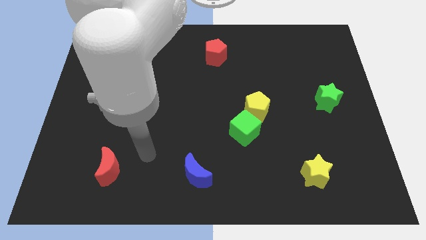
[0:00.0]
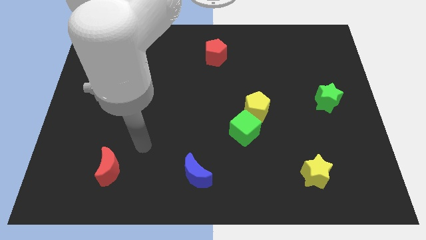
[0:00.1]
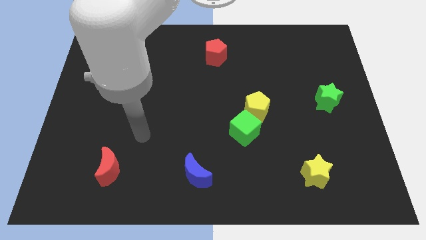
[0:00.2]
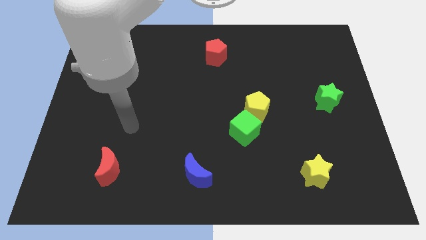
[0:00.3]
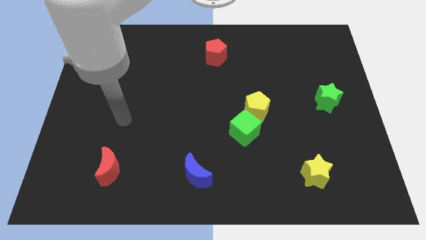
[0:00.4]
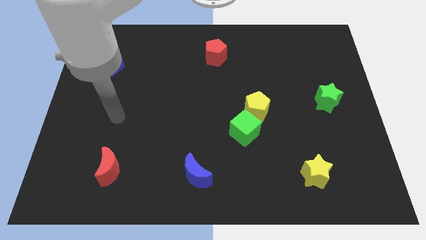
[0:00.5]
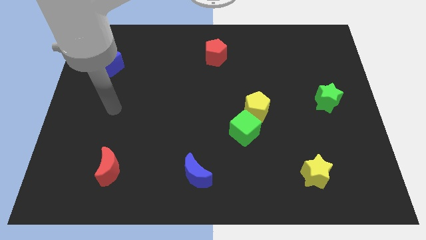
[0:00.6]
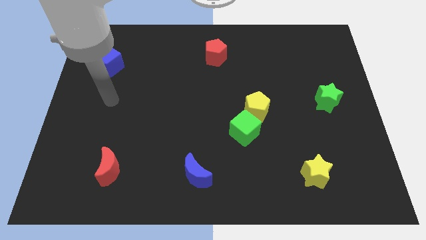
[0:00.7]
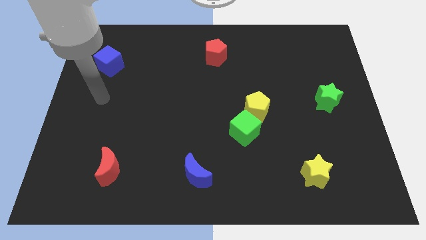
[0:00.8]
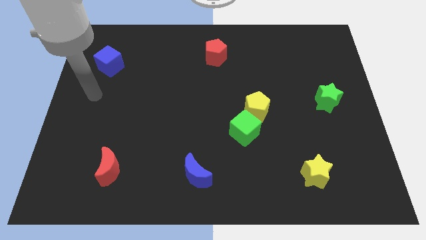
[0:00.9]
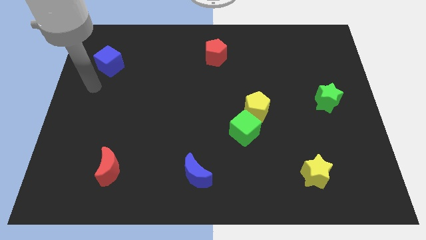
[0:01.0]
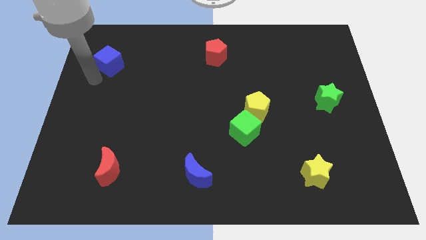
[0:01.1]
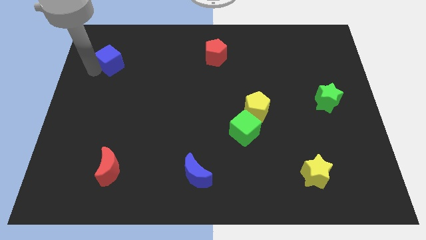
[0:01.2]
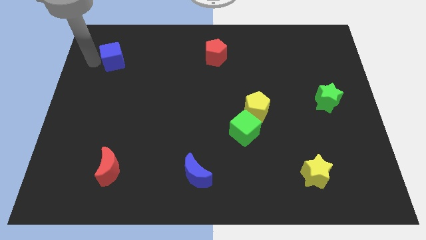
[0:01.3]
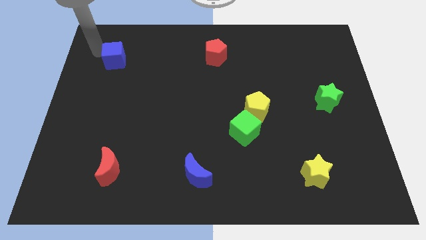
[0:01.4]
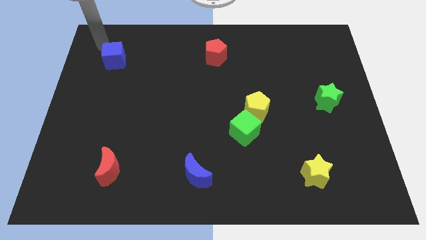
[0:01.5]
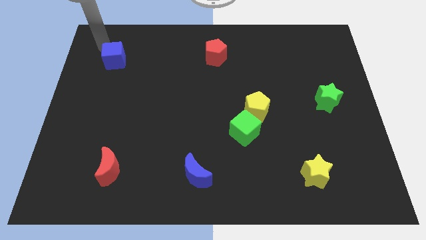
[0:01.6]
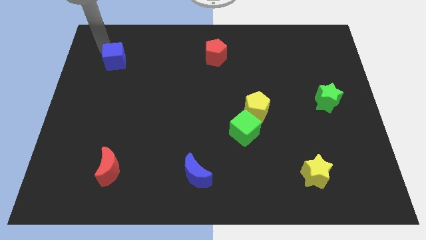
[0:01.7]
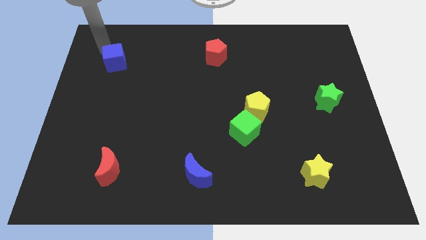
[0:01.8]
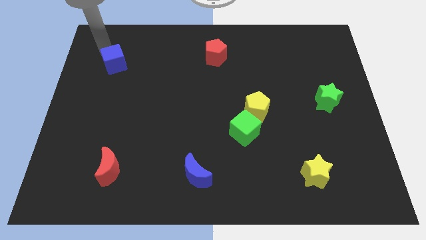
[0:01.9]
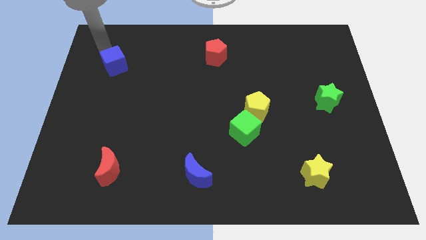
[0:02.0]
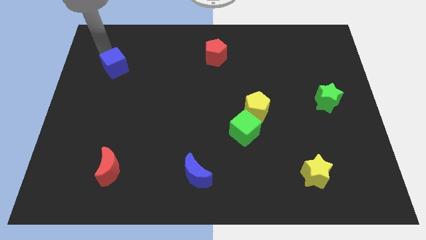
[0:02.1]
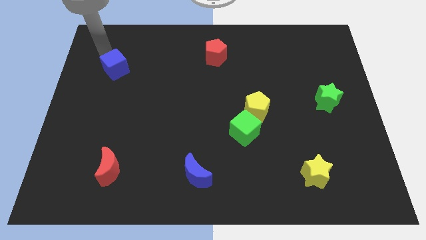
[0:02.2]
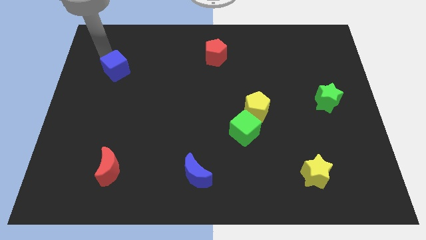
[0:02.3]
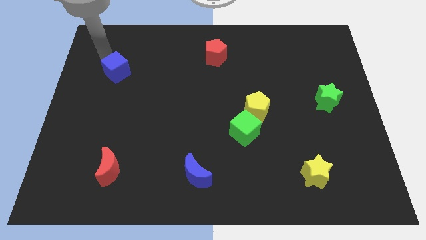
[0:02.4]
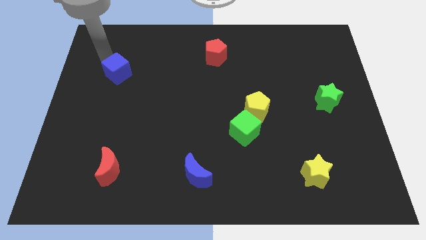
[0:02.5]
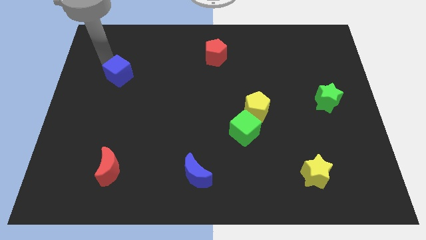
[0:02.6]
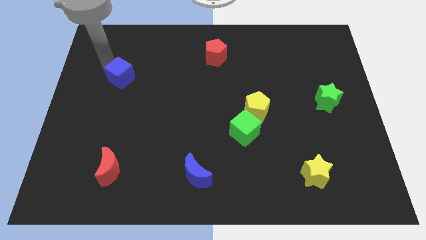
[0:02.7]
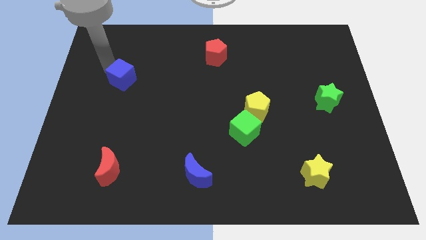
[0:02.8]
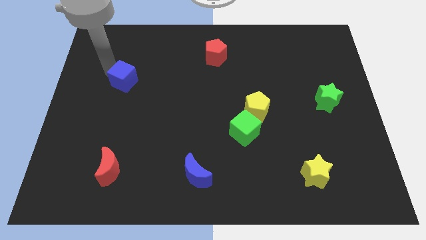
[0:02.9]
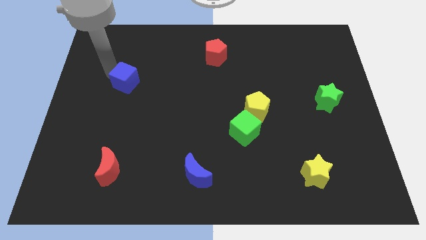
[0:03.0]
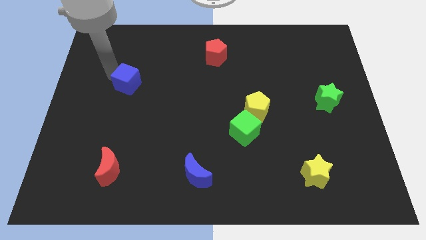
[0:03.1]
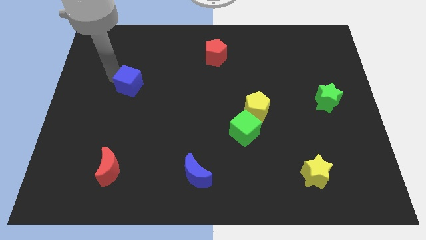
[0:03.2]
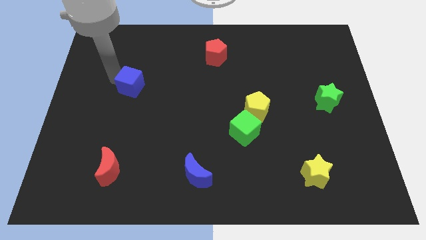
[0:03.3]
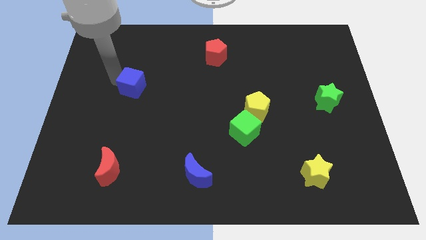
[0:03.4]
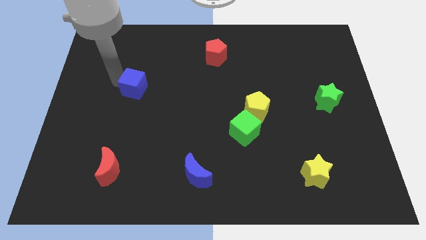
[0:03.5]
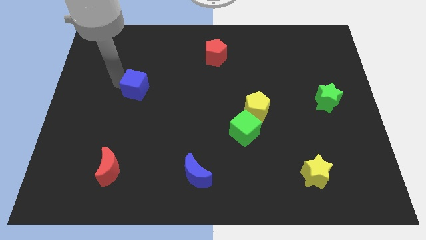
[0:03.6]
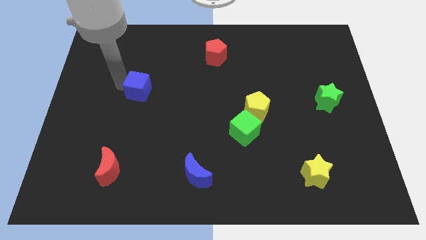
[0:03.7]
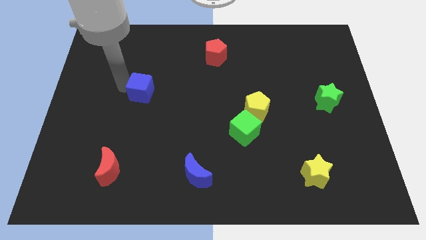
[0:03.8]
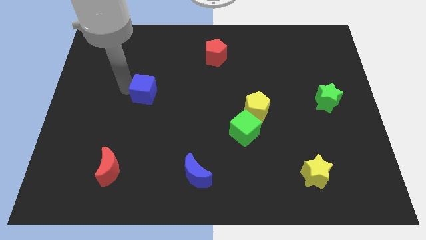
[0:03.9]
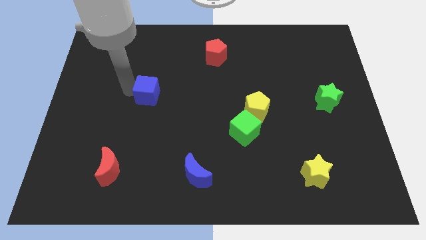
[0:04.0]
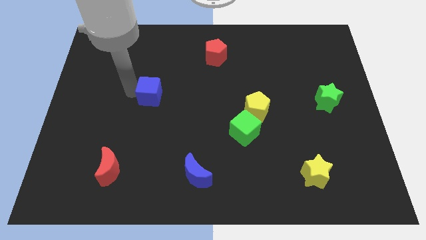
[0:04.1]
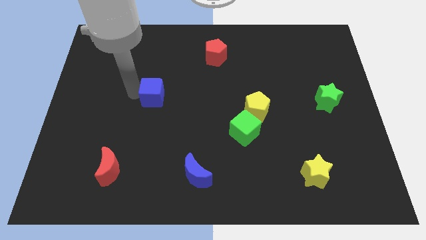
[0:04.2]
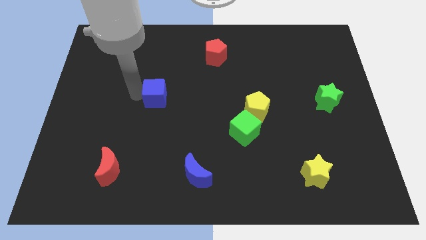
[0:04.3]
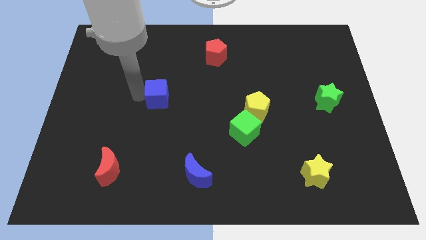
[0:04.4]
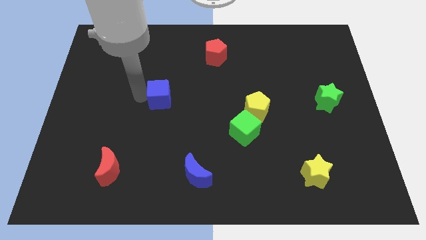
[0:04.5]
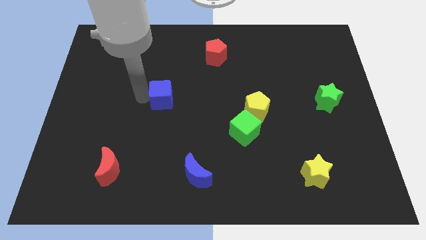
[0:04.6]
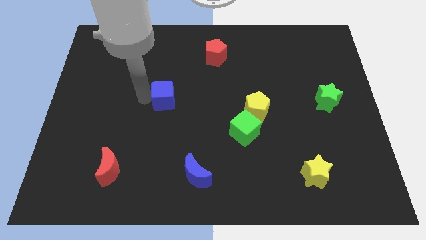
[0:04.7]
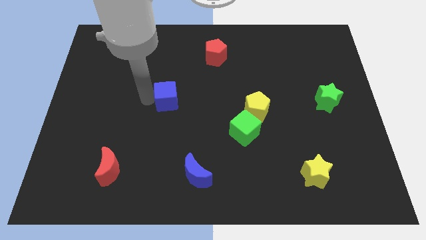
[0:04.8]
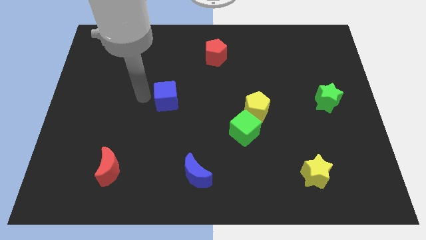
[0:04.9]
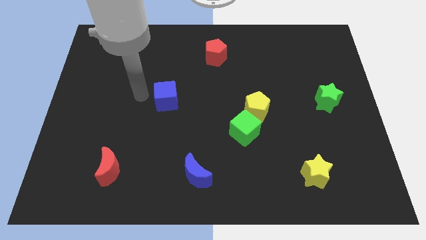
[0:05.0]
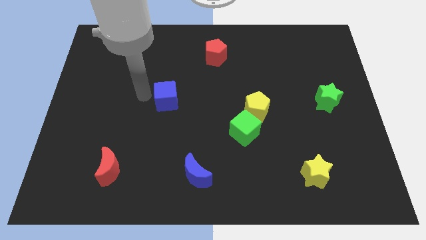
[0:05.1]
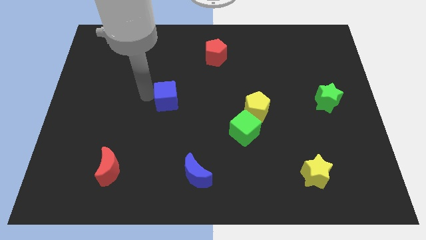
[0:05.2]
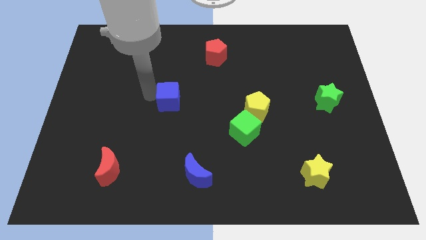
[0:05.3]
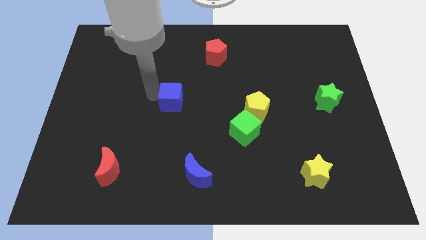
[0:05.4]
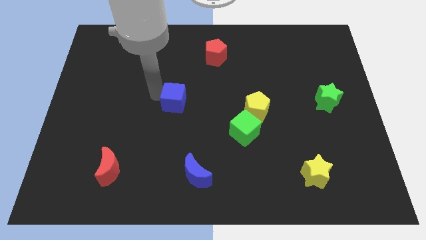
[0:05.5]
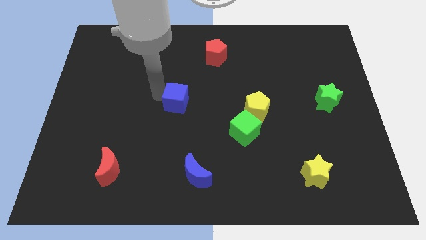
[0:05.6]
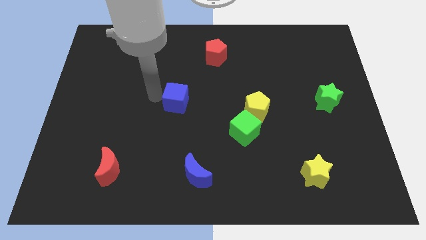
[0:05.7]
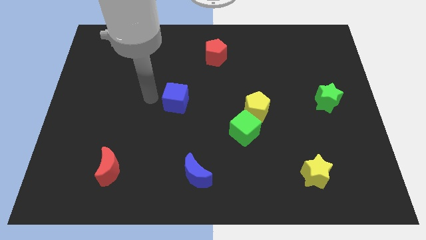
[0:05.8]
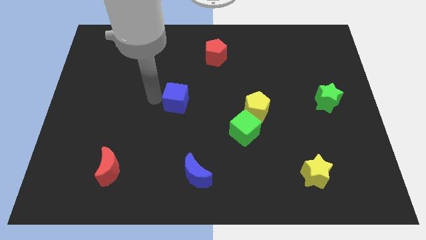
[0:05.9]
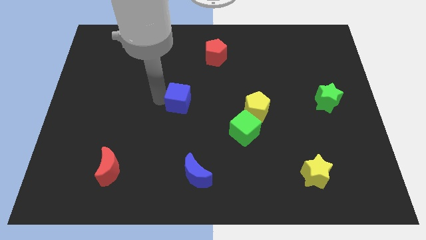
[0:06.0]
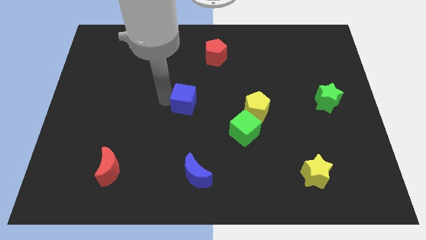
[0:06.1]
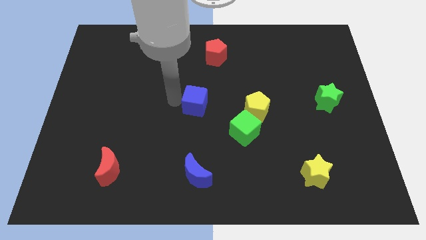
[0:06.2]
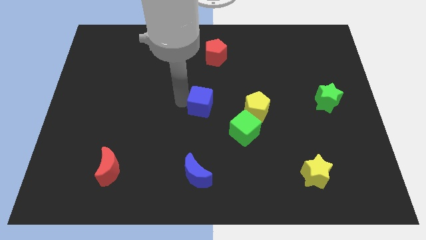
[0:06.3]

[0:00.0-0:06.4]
slide the blue cube to the top left of the green cube
